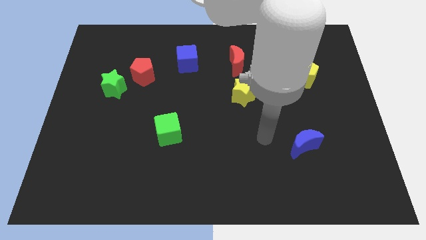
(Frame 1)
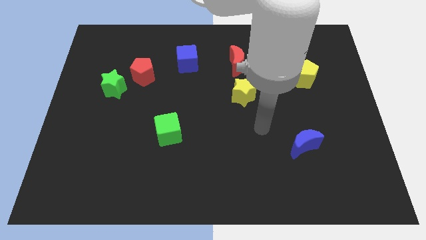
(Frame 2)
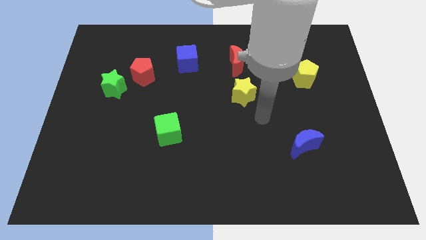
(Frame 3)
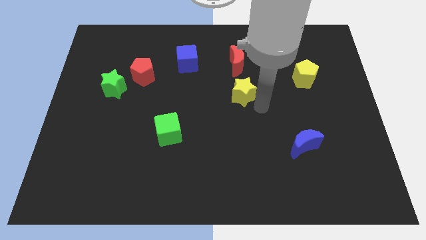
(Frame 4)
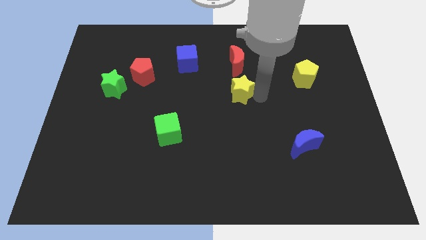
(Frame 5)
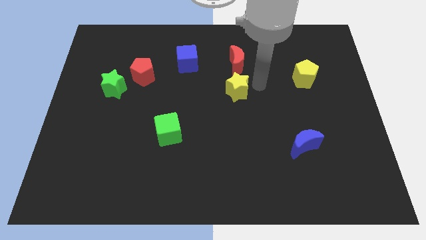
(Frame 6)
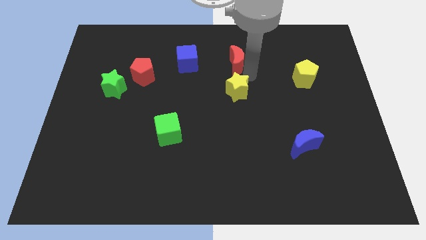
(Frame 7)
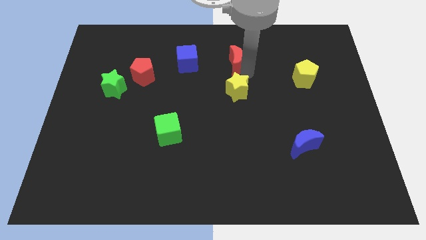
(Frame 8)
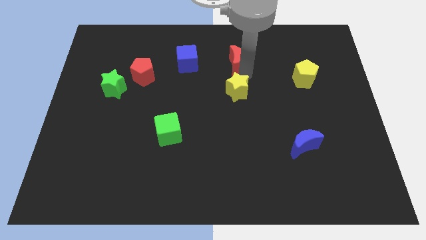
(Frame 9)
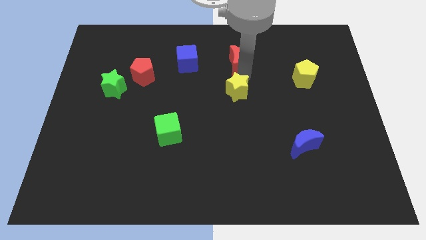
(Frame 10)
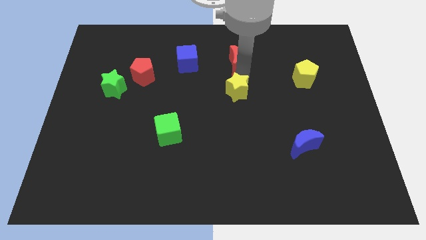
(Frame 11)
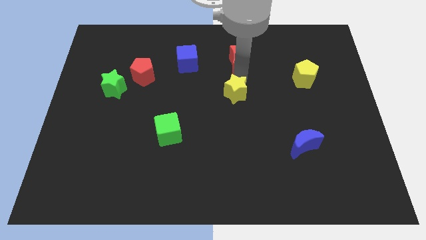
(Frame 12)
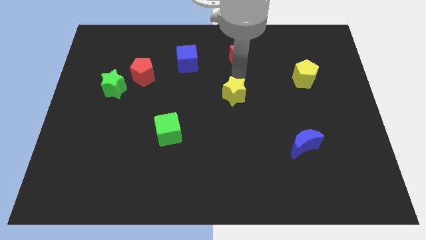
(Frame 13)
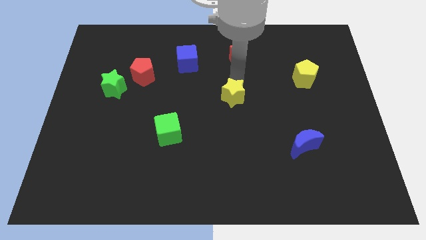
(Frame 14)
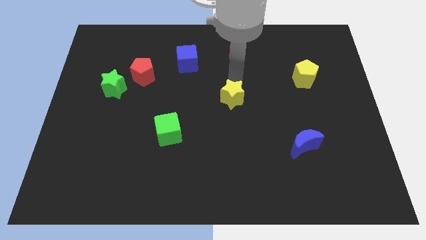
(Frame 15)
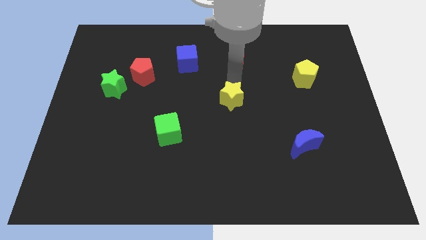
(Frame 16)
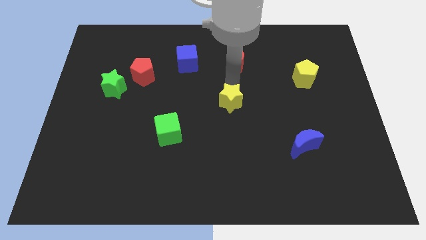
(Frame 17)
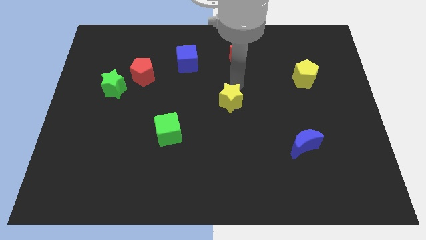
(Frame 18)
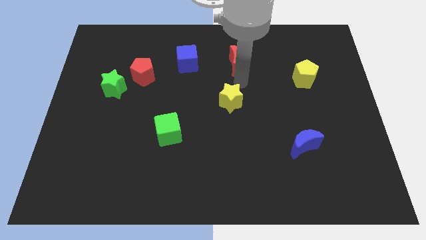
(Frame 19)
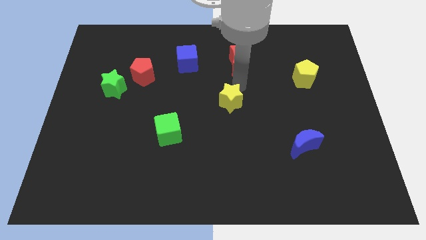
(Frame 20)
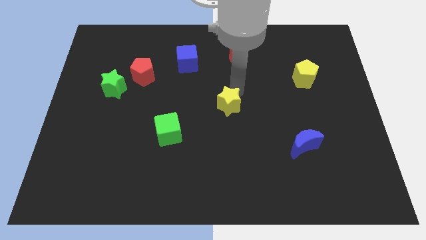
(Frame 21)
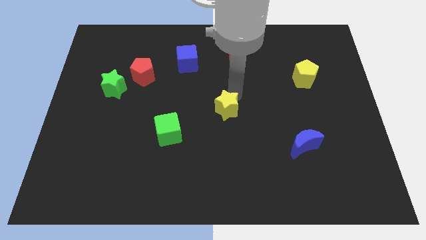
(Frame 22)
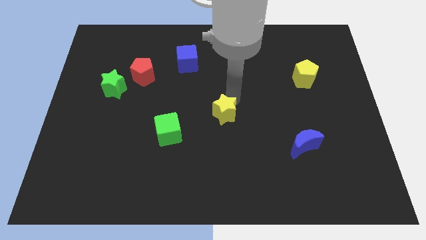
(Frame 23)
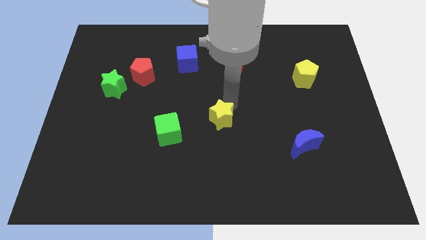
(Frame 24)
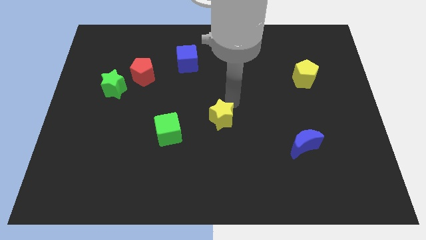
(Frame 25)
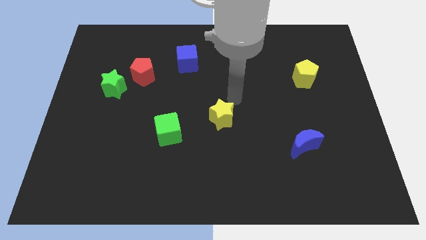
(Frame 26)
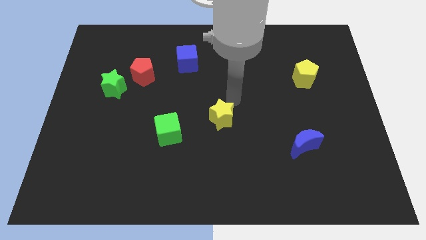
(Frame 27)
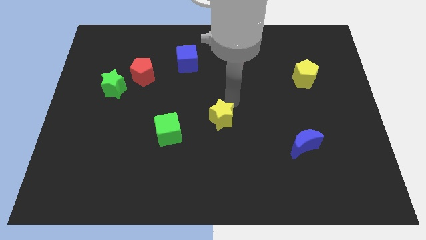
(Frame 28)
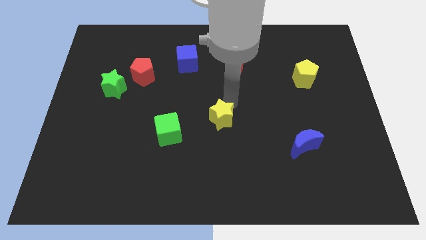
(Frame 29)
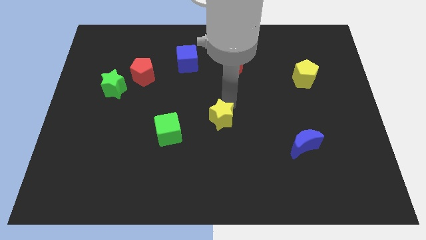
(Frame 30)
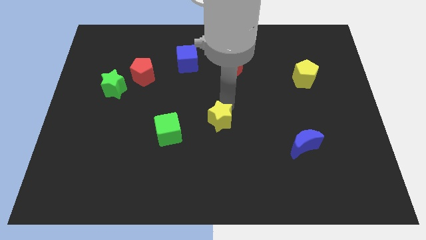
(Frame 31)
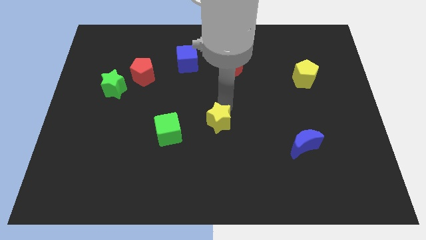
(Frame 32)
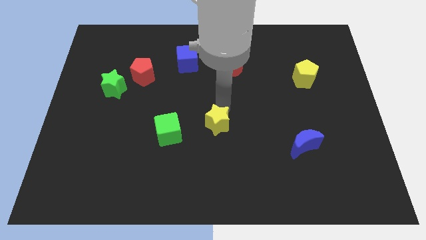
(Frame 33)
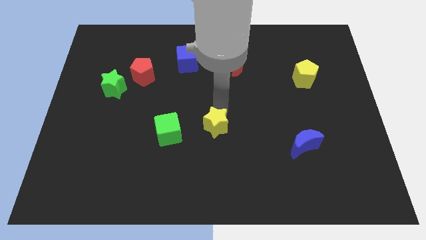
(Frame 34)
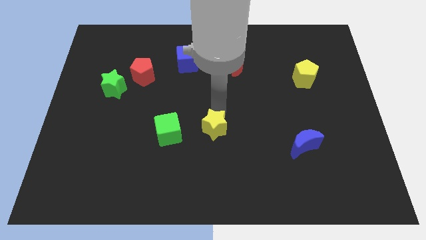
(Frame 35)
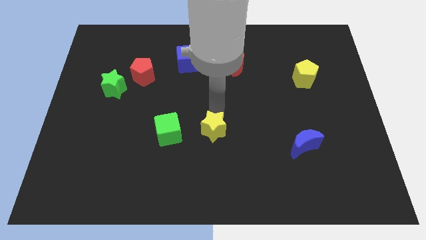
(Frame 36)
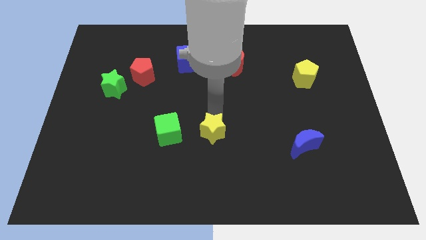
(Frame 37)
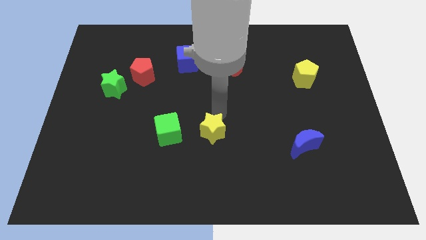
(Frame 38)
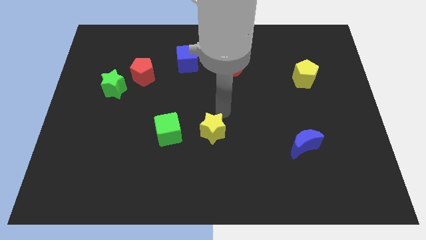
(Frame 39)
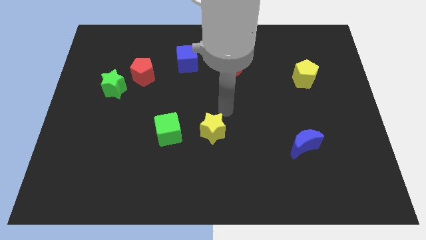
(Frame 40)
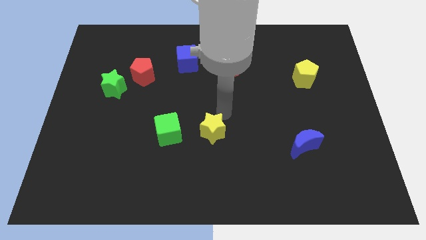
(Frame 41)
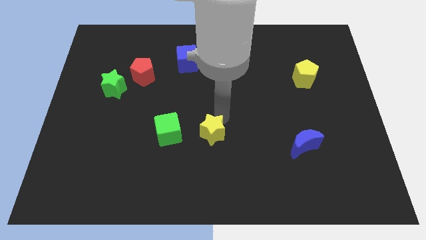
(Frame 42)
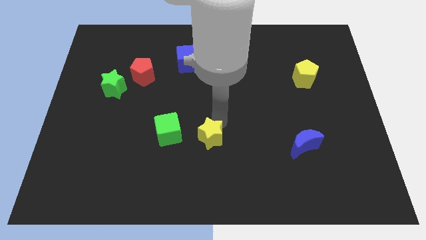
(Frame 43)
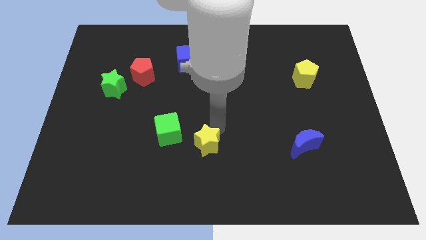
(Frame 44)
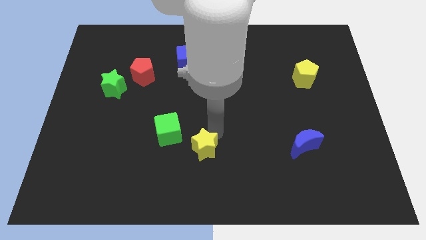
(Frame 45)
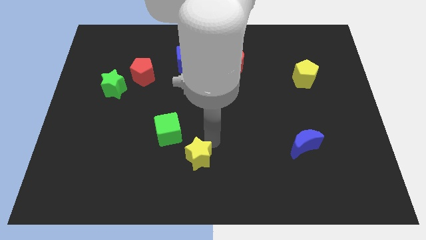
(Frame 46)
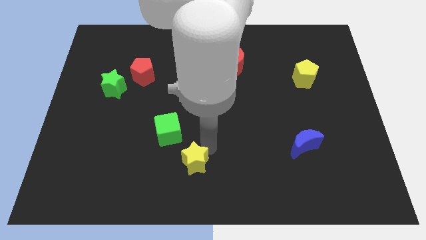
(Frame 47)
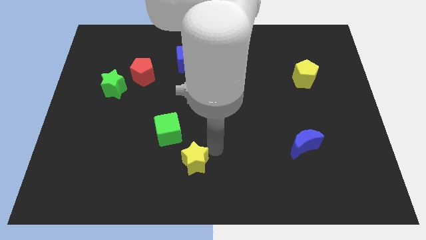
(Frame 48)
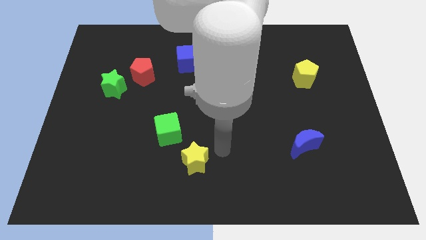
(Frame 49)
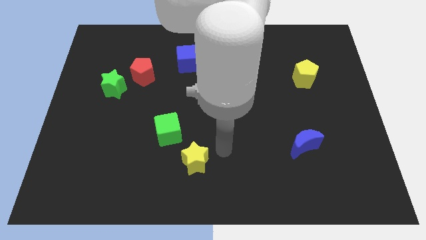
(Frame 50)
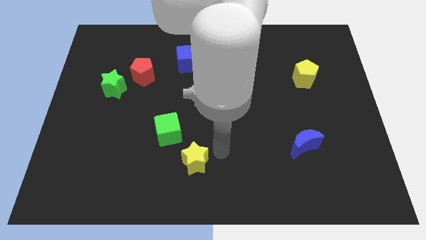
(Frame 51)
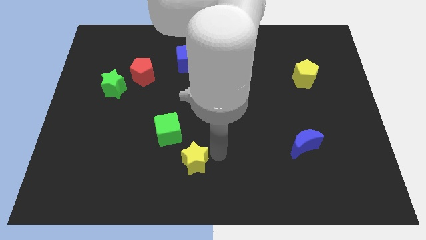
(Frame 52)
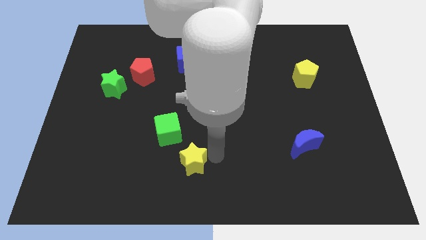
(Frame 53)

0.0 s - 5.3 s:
move the yellow star diagonally downwards and left

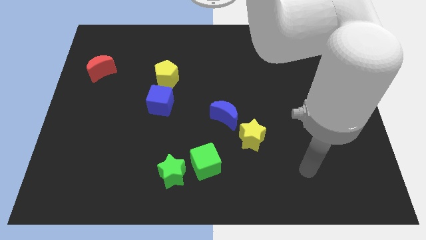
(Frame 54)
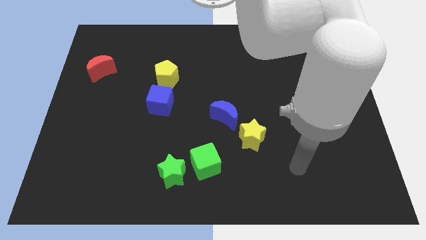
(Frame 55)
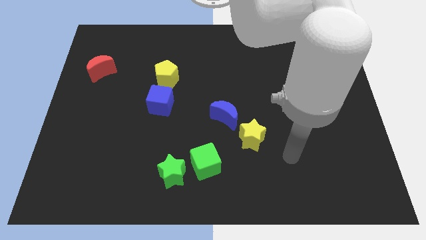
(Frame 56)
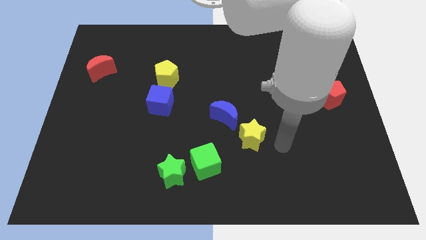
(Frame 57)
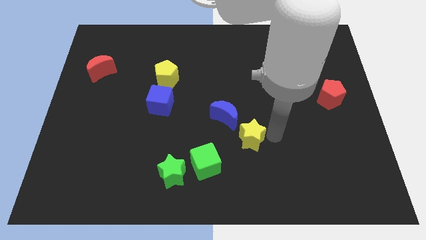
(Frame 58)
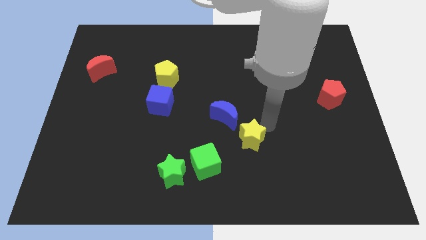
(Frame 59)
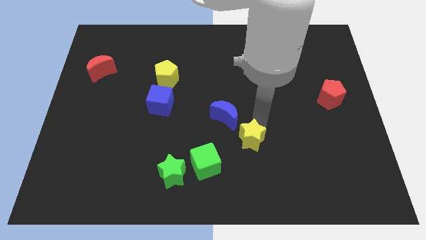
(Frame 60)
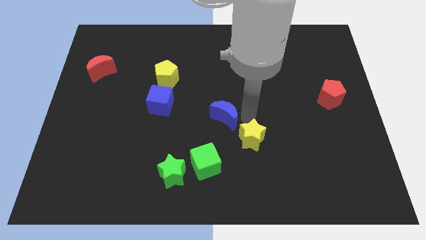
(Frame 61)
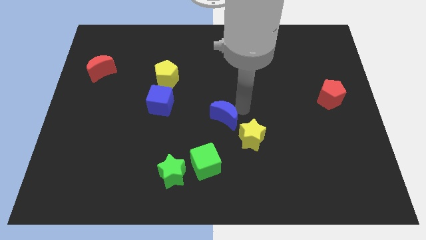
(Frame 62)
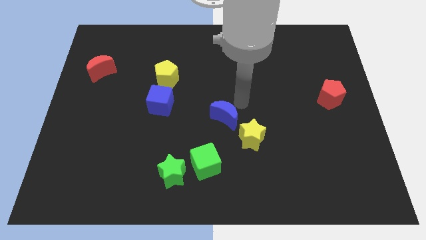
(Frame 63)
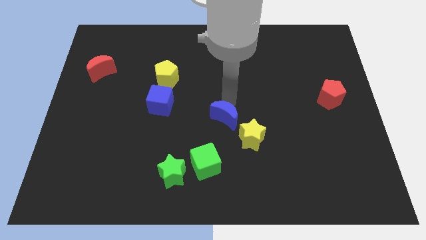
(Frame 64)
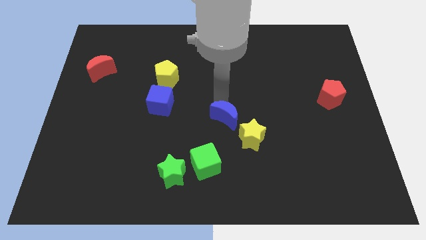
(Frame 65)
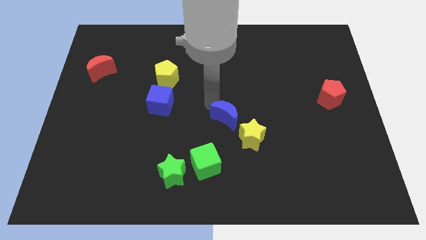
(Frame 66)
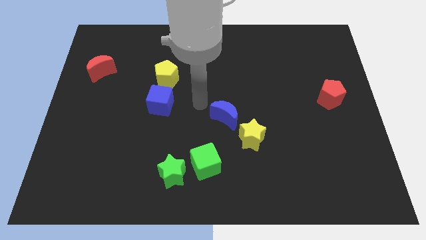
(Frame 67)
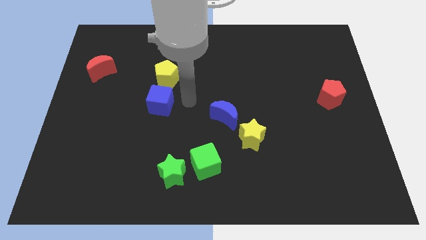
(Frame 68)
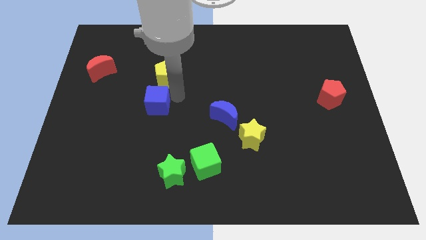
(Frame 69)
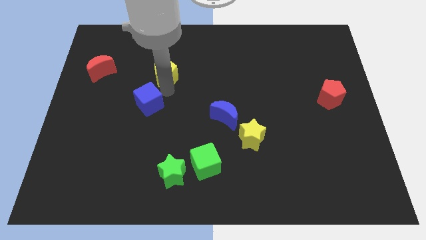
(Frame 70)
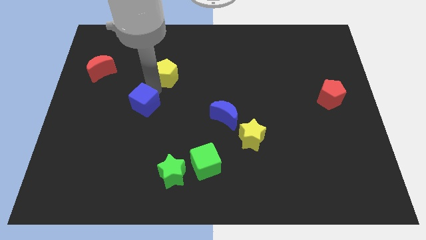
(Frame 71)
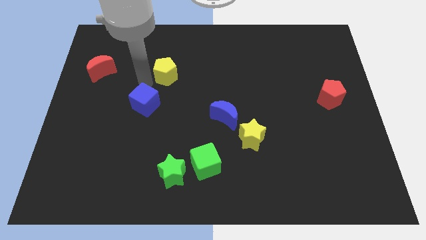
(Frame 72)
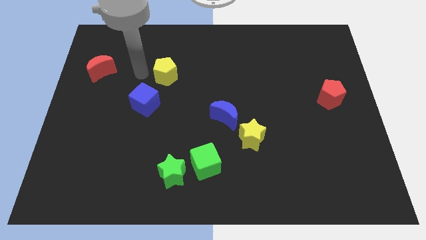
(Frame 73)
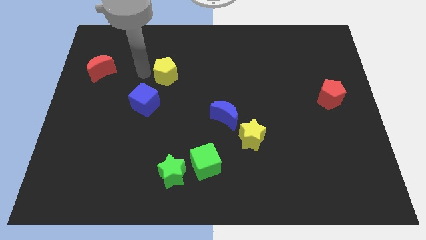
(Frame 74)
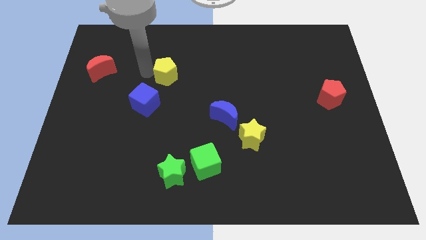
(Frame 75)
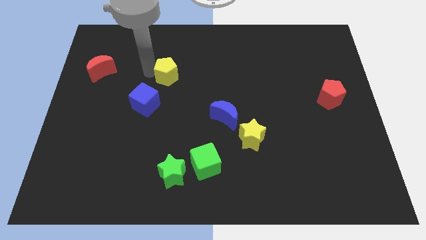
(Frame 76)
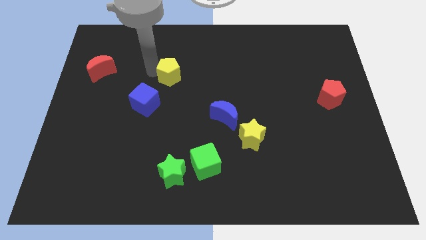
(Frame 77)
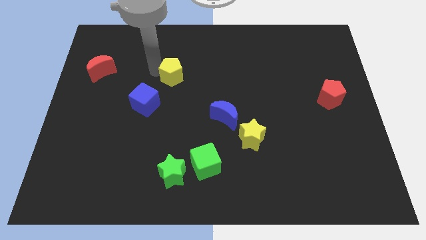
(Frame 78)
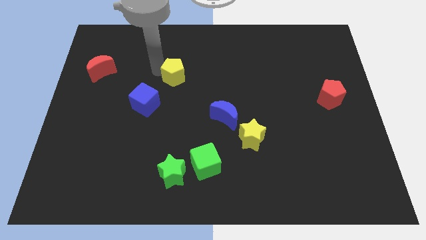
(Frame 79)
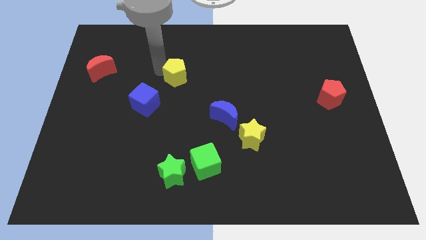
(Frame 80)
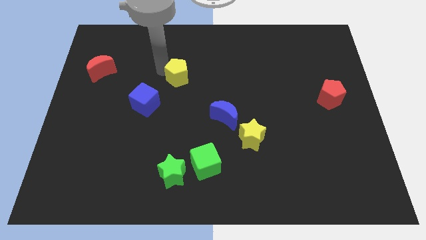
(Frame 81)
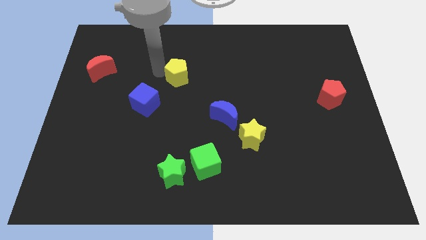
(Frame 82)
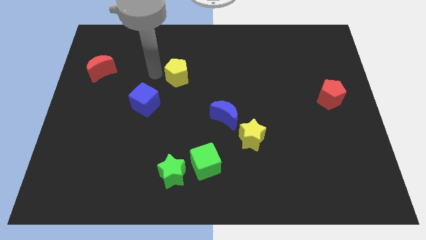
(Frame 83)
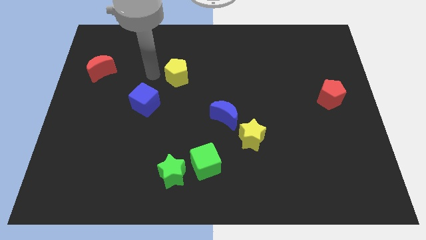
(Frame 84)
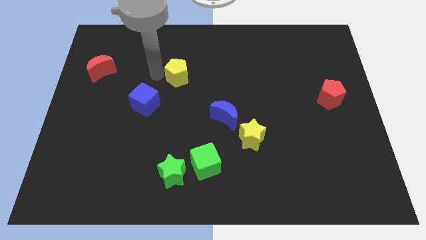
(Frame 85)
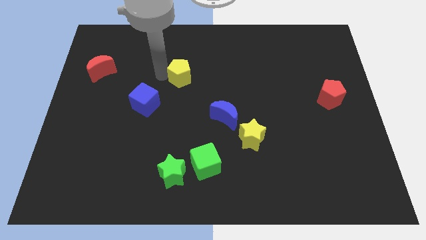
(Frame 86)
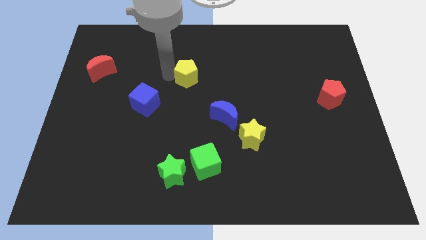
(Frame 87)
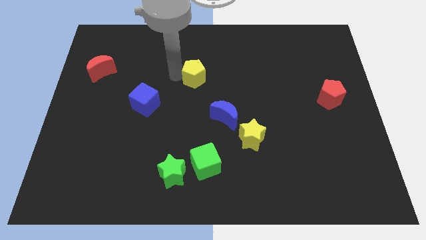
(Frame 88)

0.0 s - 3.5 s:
slightly push the yellow pentagon right
